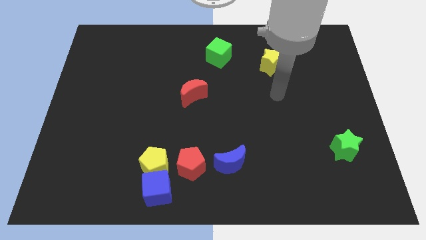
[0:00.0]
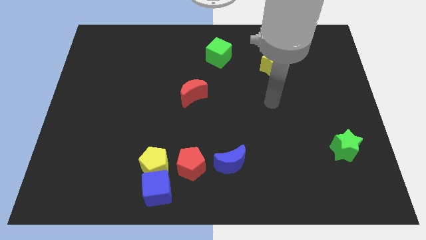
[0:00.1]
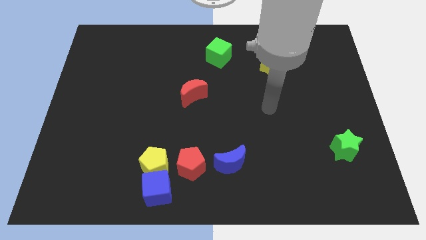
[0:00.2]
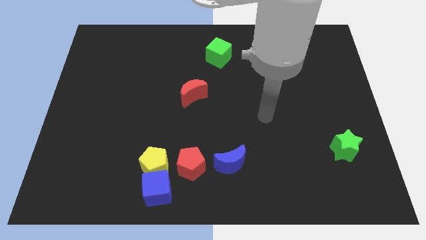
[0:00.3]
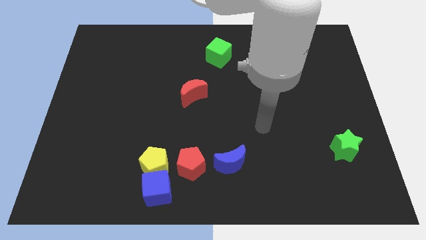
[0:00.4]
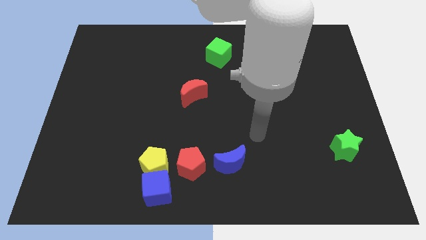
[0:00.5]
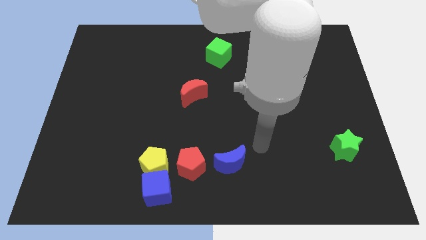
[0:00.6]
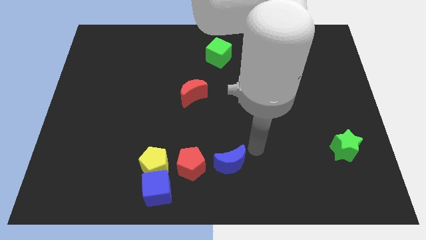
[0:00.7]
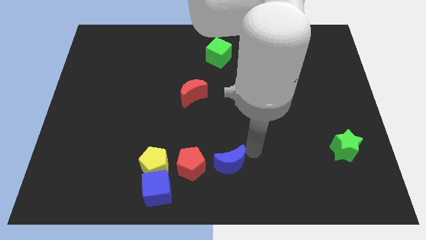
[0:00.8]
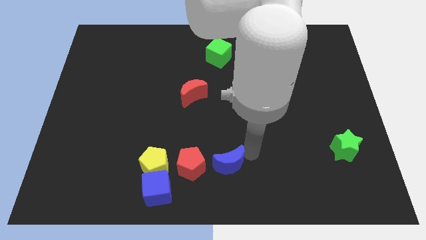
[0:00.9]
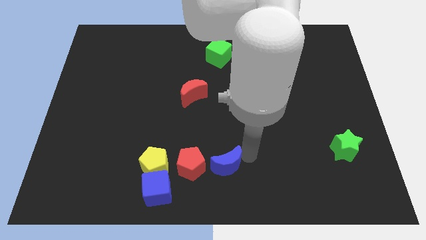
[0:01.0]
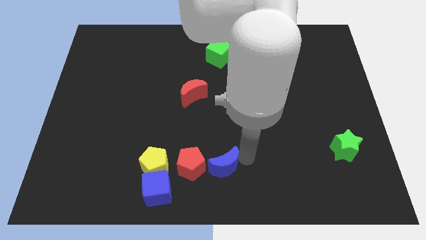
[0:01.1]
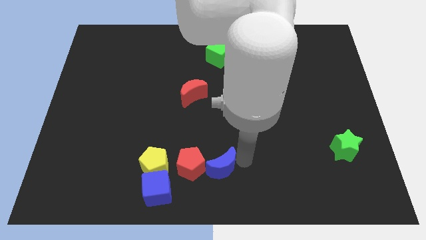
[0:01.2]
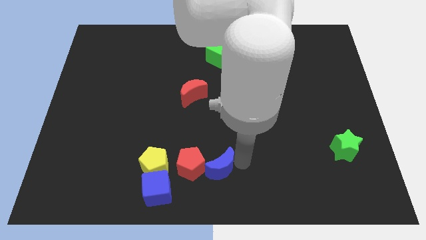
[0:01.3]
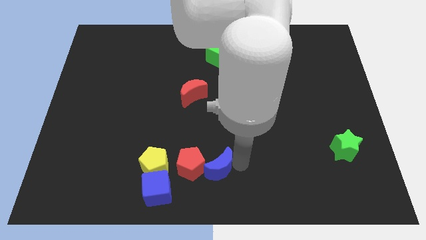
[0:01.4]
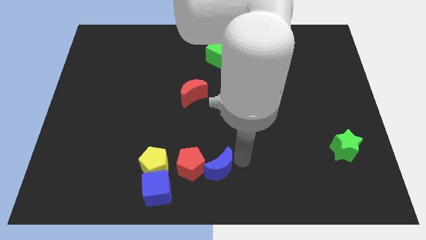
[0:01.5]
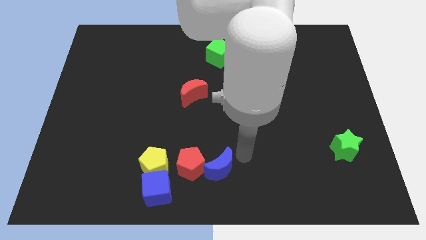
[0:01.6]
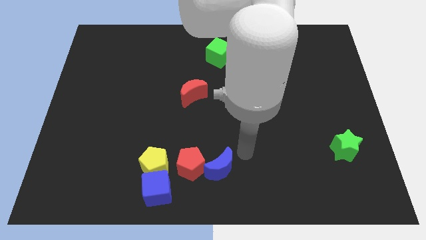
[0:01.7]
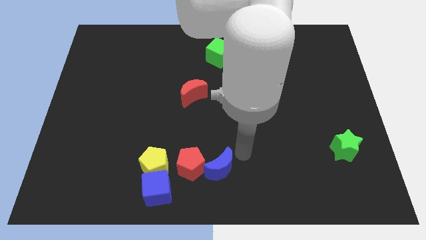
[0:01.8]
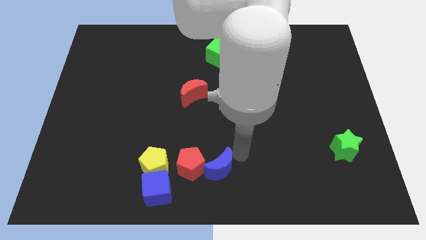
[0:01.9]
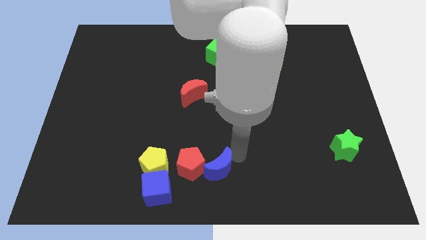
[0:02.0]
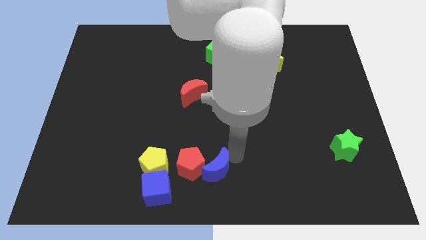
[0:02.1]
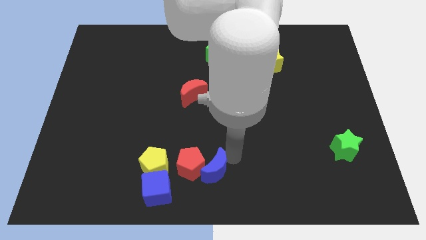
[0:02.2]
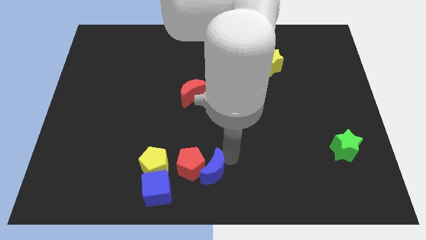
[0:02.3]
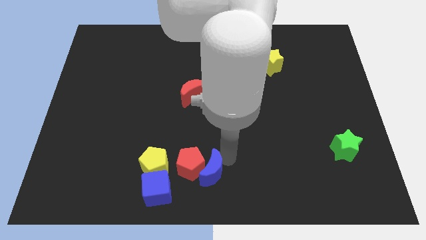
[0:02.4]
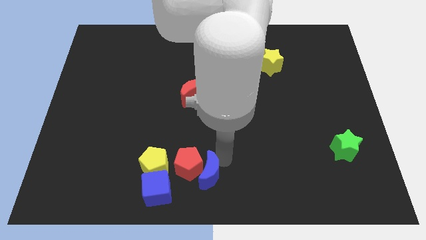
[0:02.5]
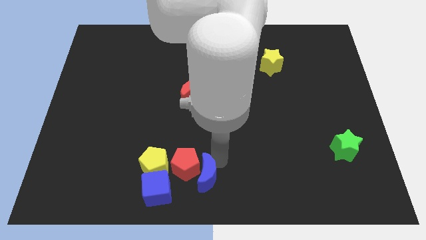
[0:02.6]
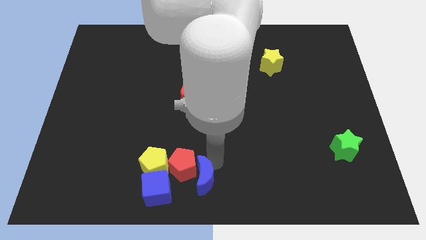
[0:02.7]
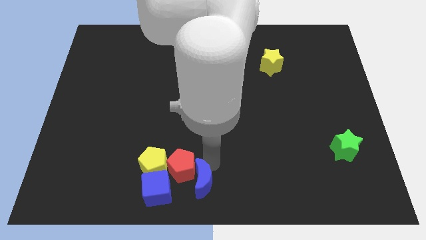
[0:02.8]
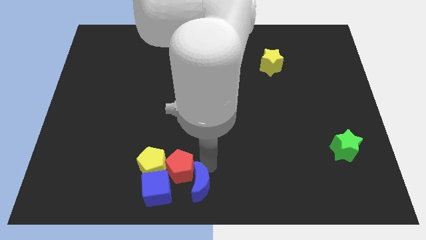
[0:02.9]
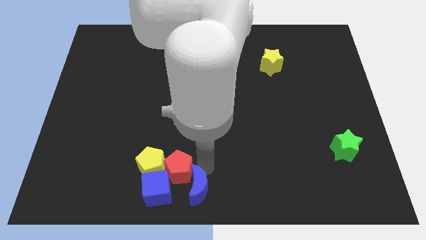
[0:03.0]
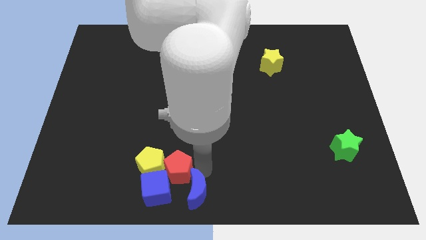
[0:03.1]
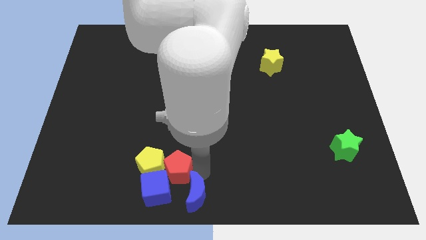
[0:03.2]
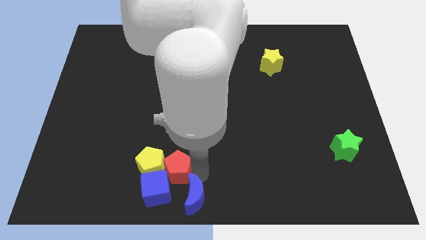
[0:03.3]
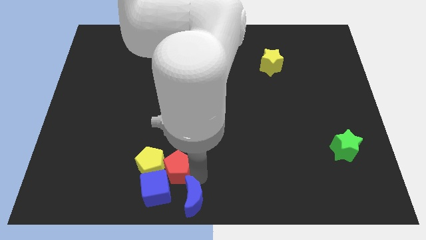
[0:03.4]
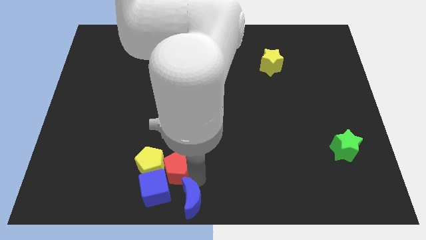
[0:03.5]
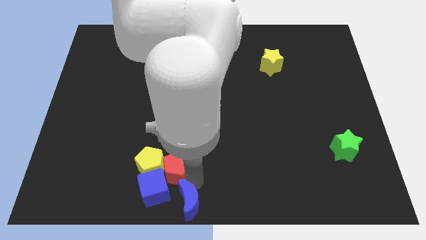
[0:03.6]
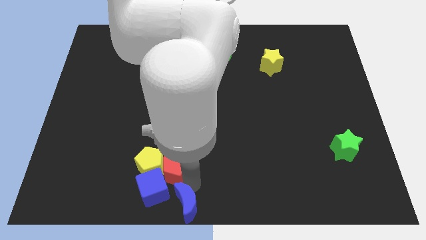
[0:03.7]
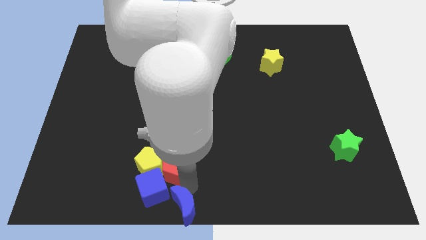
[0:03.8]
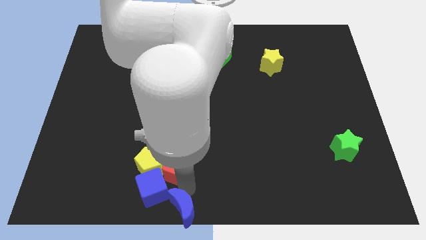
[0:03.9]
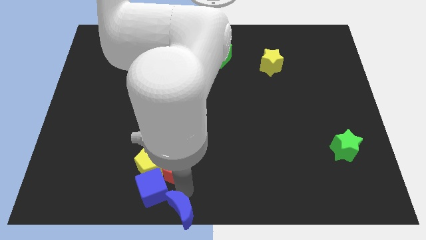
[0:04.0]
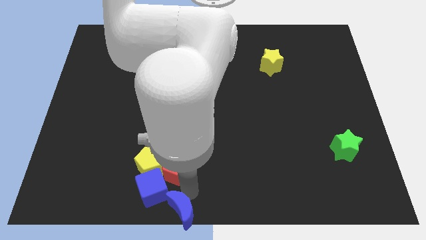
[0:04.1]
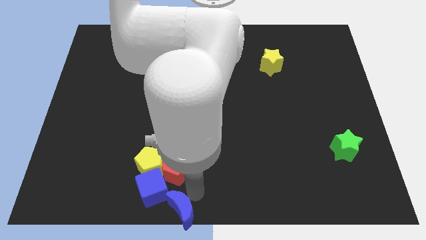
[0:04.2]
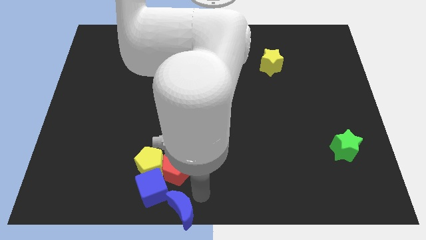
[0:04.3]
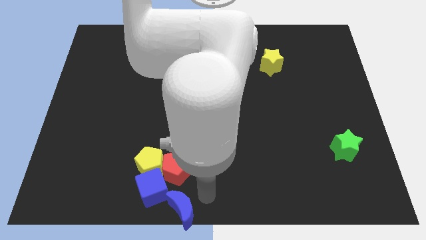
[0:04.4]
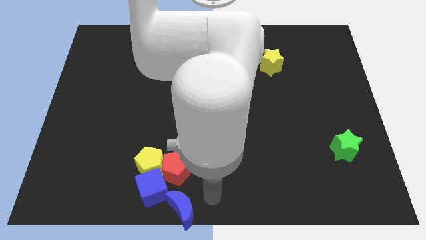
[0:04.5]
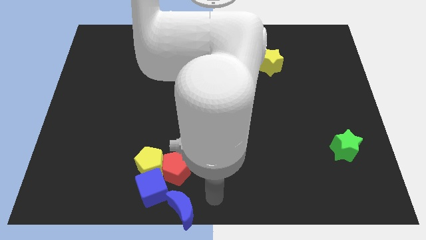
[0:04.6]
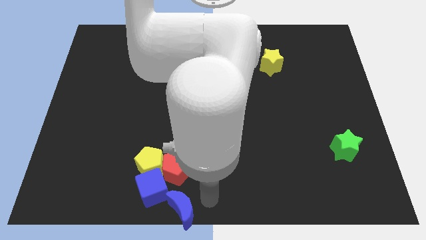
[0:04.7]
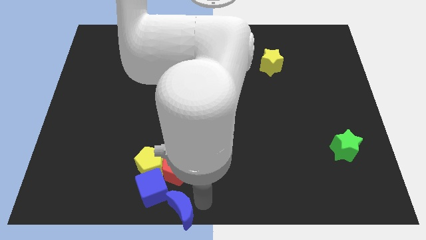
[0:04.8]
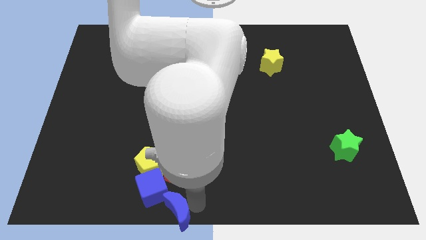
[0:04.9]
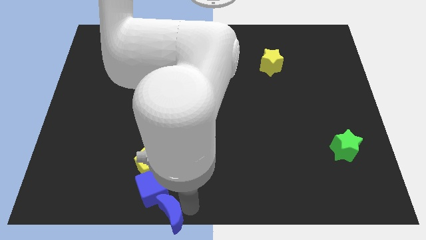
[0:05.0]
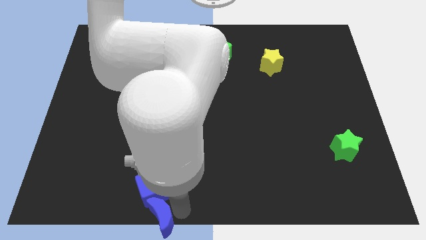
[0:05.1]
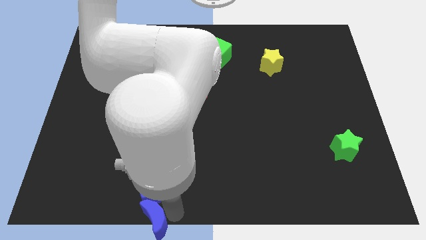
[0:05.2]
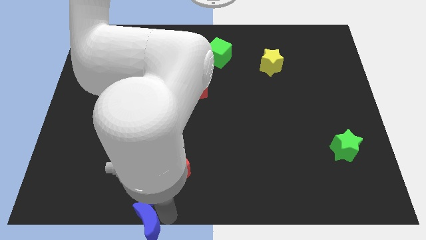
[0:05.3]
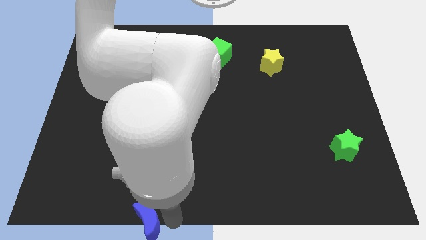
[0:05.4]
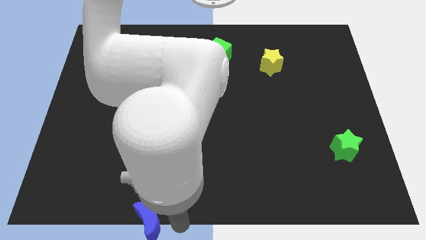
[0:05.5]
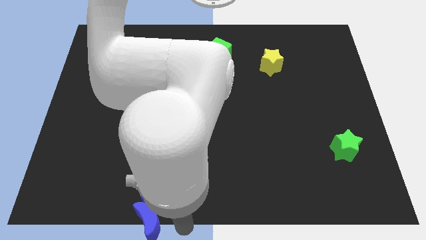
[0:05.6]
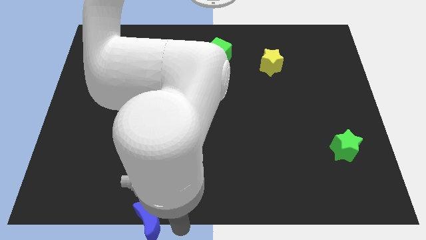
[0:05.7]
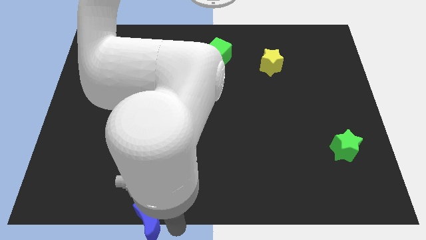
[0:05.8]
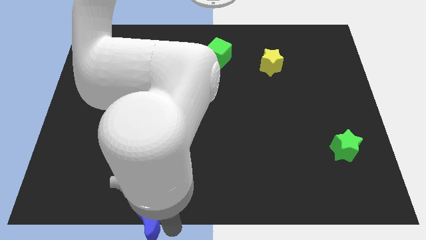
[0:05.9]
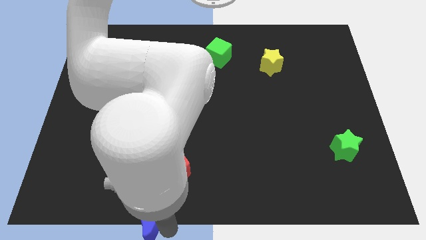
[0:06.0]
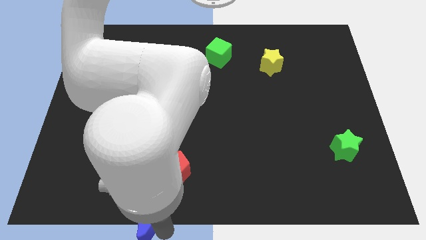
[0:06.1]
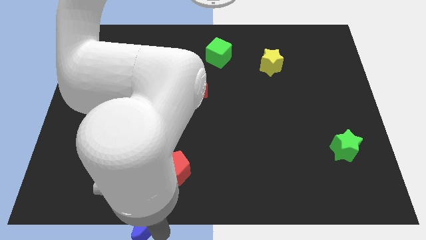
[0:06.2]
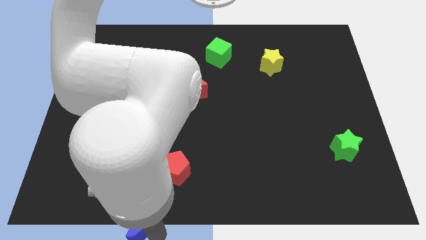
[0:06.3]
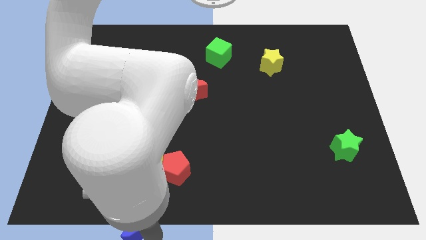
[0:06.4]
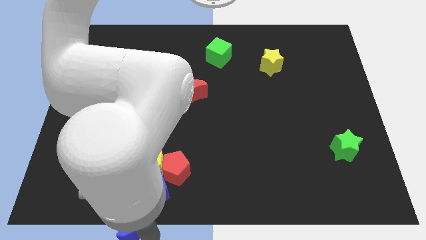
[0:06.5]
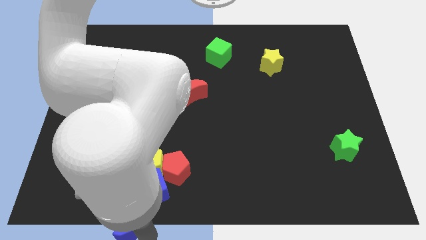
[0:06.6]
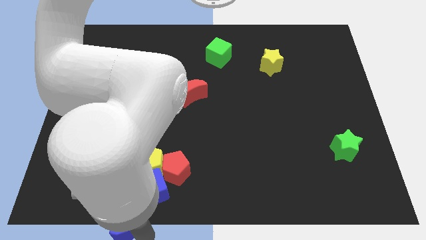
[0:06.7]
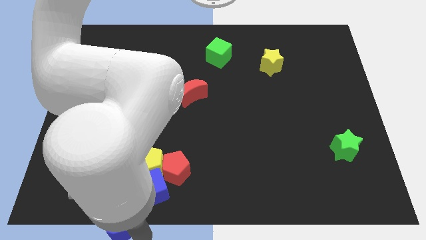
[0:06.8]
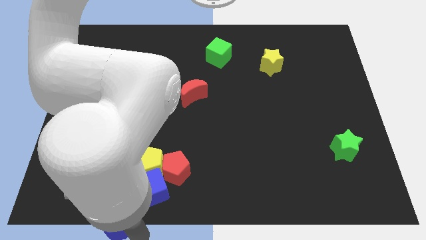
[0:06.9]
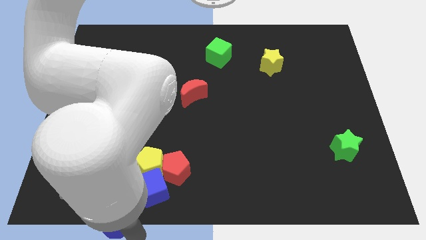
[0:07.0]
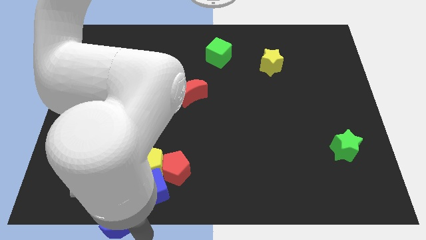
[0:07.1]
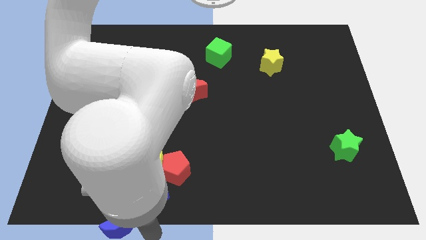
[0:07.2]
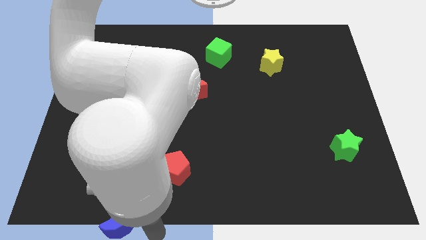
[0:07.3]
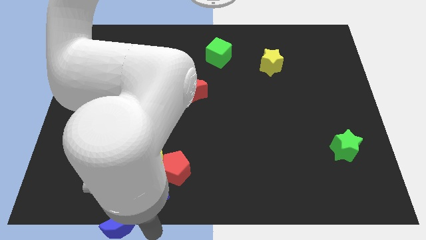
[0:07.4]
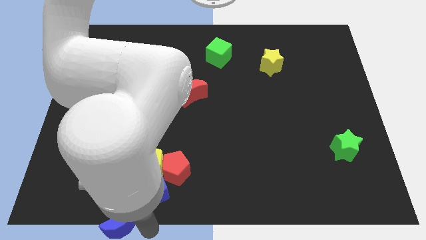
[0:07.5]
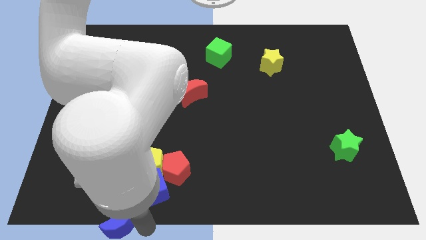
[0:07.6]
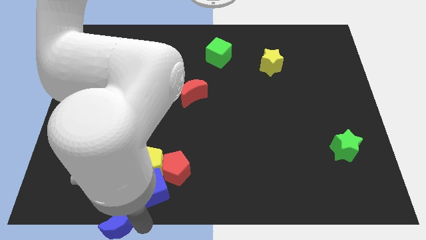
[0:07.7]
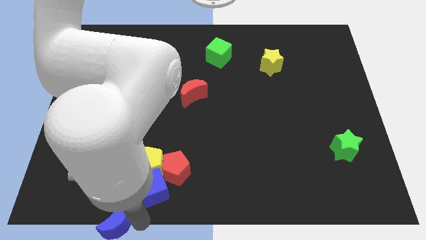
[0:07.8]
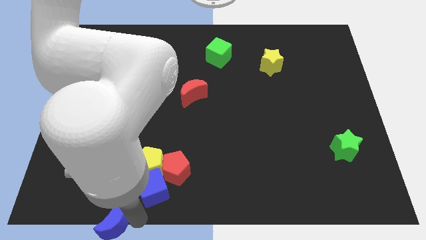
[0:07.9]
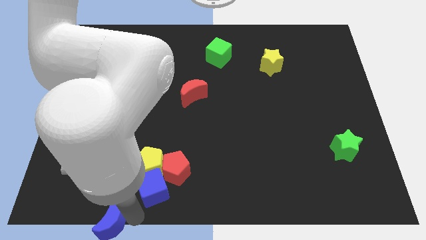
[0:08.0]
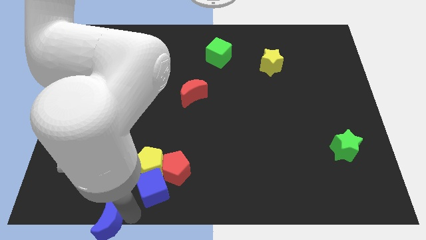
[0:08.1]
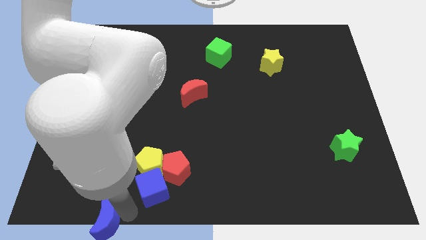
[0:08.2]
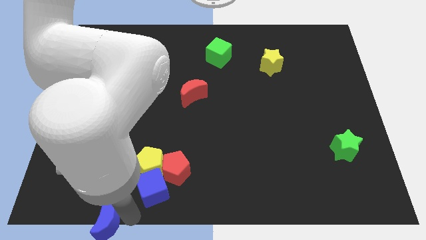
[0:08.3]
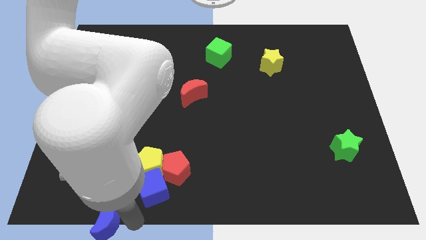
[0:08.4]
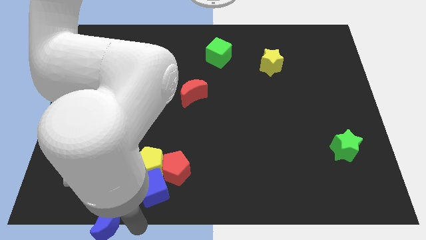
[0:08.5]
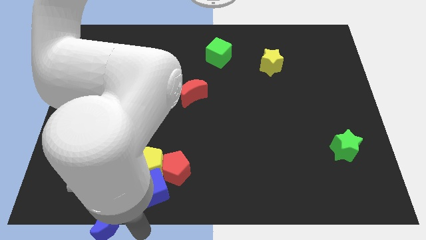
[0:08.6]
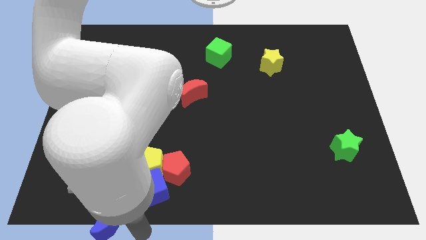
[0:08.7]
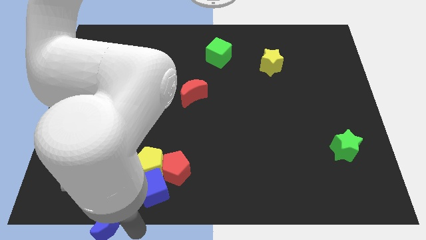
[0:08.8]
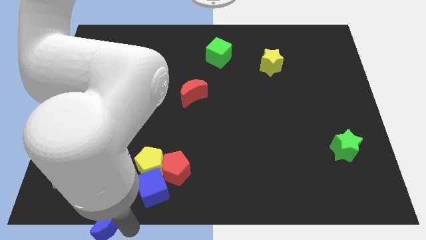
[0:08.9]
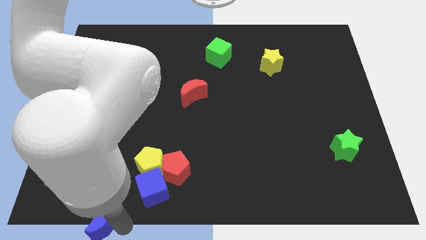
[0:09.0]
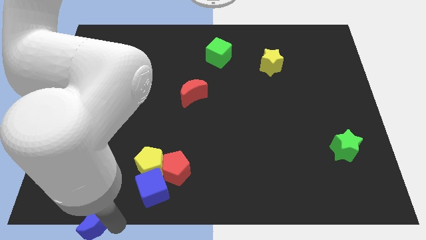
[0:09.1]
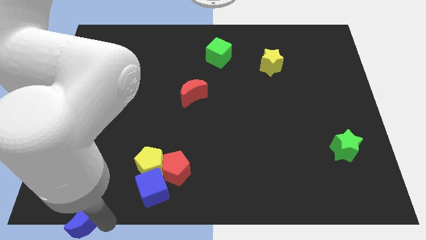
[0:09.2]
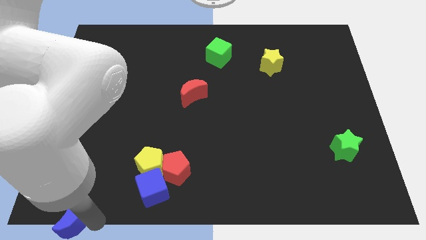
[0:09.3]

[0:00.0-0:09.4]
push the blue moon to the bottom left corner
